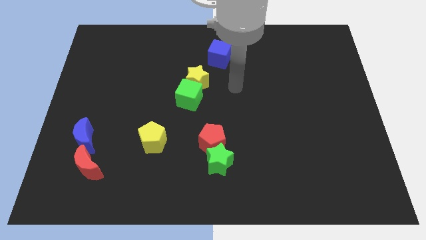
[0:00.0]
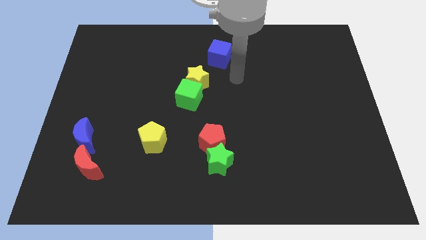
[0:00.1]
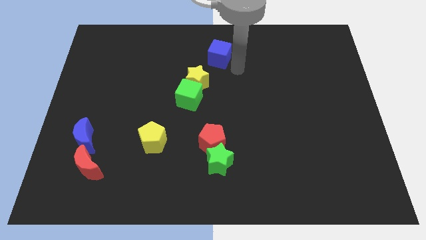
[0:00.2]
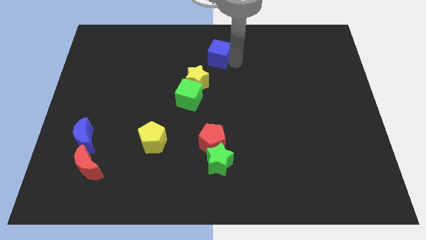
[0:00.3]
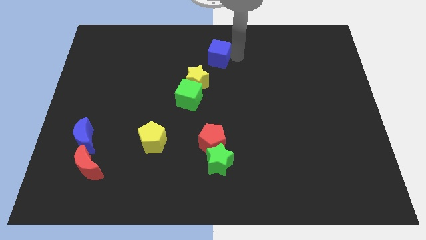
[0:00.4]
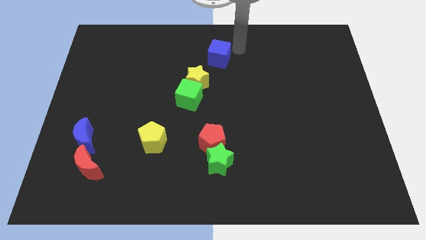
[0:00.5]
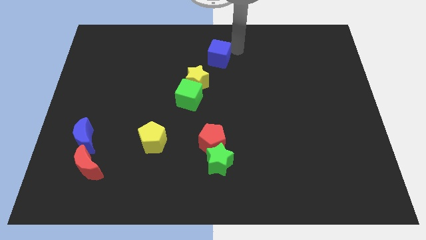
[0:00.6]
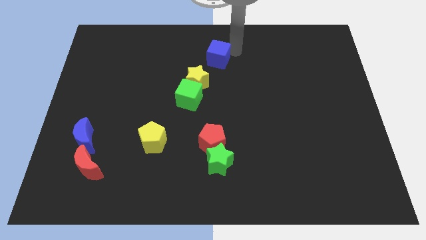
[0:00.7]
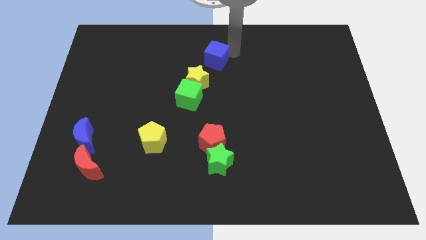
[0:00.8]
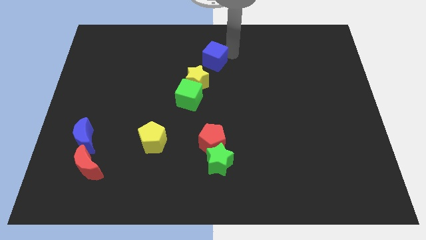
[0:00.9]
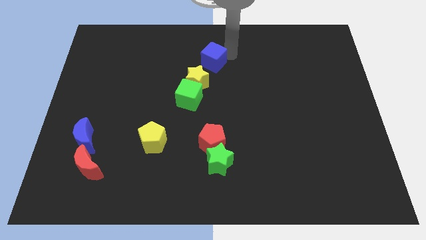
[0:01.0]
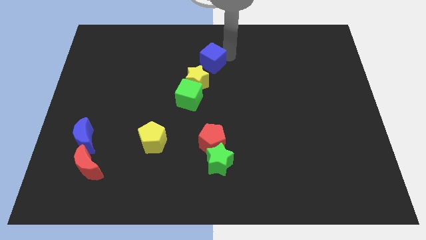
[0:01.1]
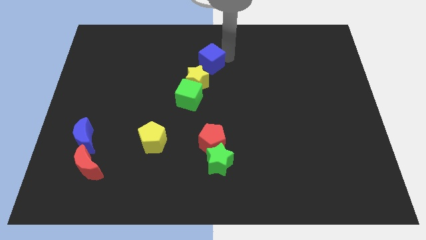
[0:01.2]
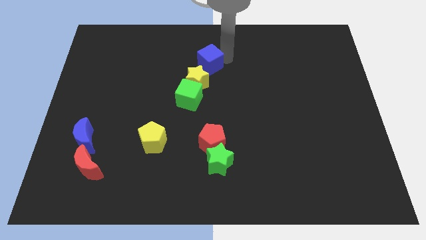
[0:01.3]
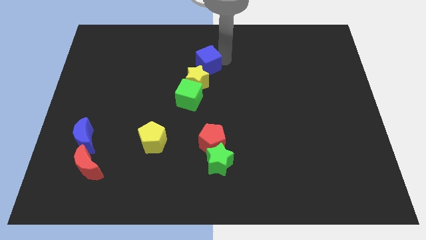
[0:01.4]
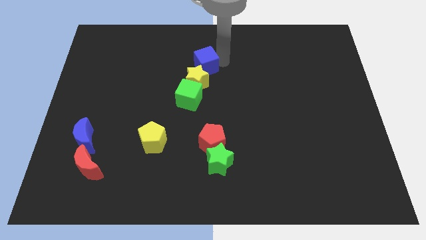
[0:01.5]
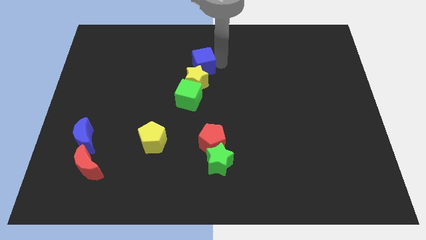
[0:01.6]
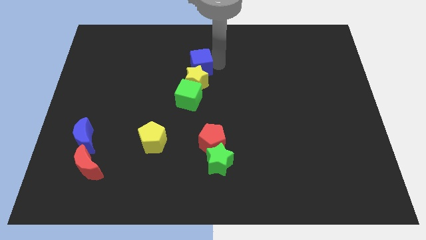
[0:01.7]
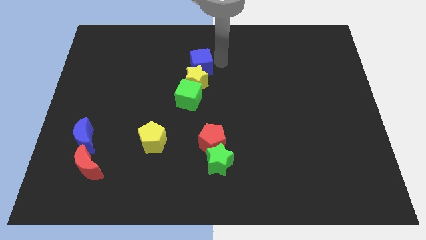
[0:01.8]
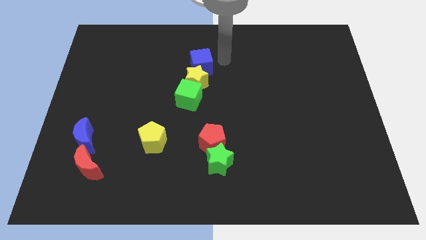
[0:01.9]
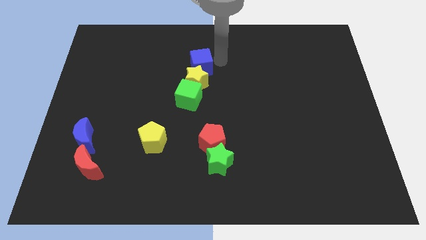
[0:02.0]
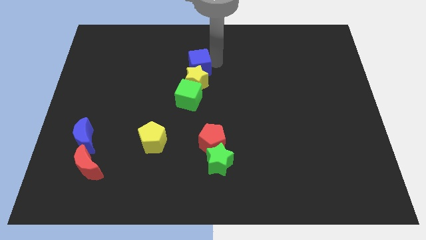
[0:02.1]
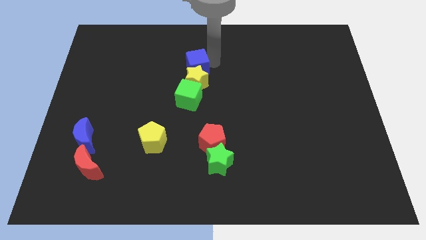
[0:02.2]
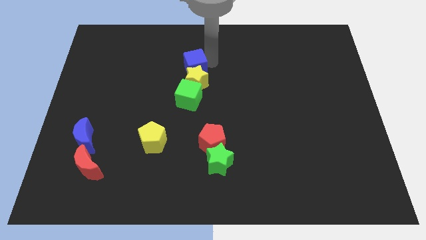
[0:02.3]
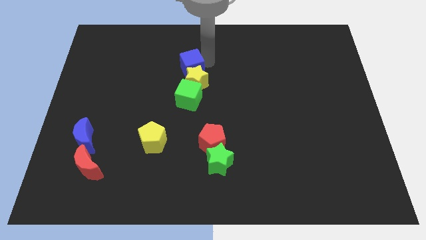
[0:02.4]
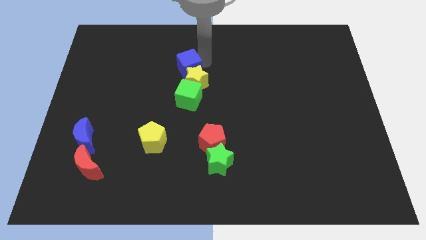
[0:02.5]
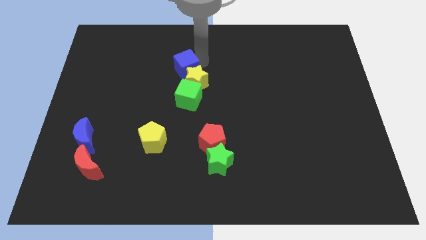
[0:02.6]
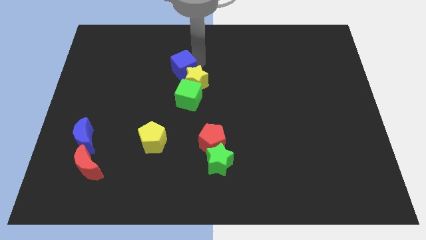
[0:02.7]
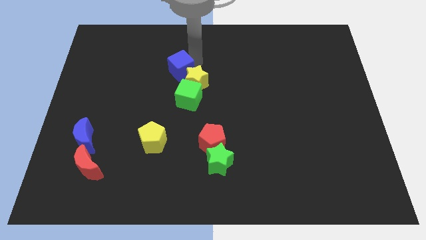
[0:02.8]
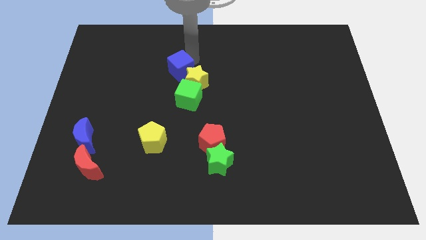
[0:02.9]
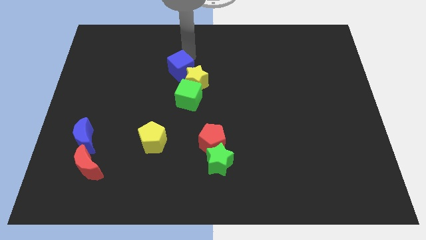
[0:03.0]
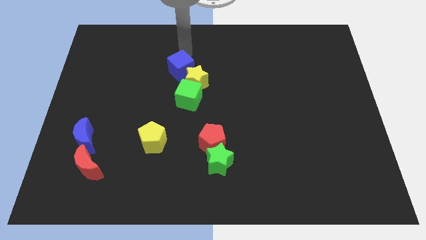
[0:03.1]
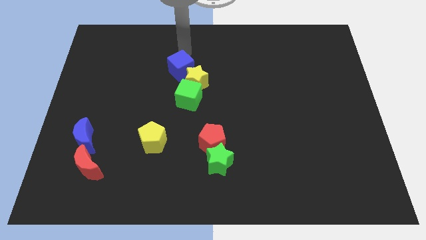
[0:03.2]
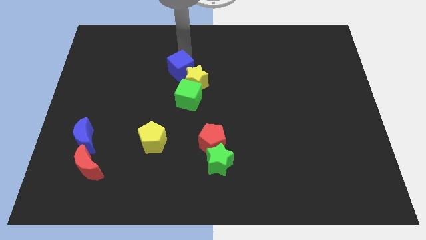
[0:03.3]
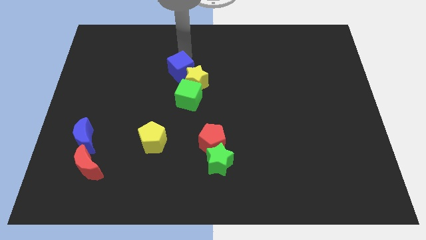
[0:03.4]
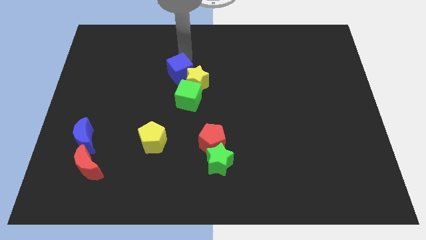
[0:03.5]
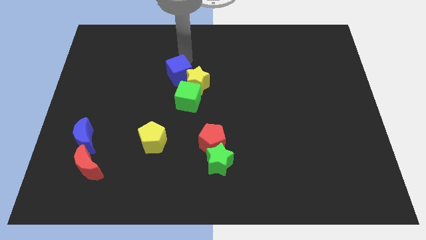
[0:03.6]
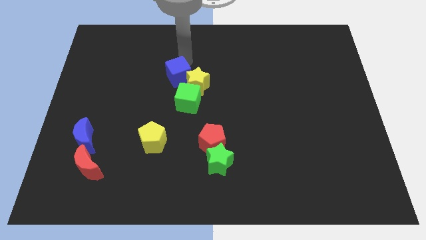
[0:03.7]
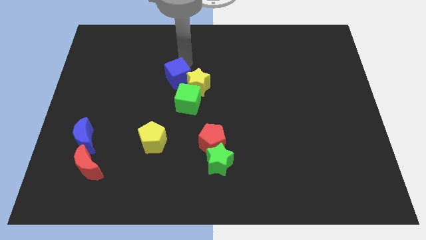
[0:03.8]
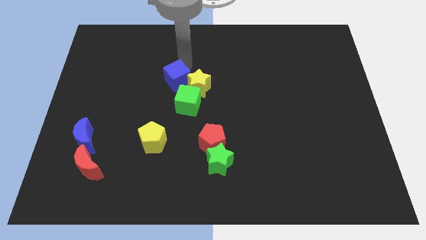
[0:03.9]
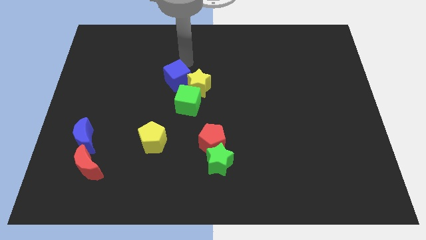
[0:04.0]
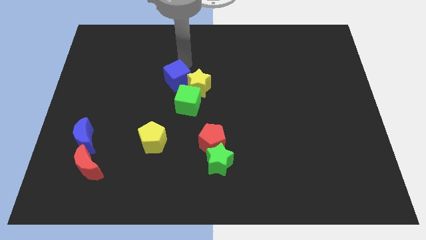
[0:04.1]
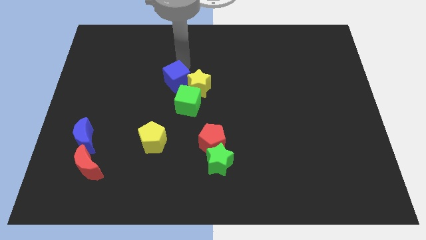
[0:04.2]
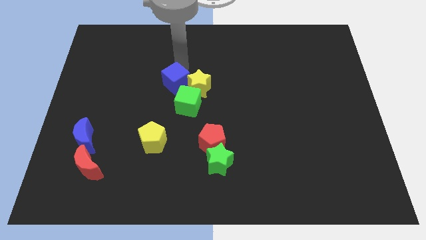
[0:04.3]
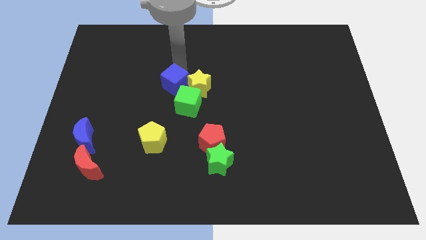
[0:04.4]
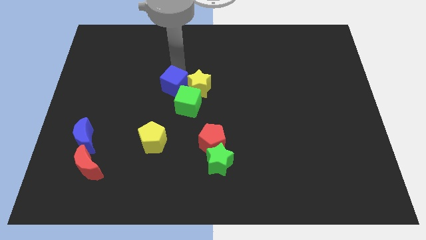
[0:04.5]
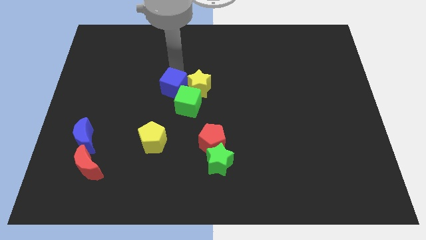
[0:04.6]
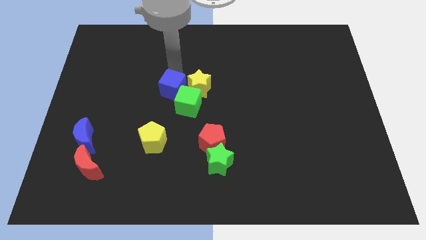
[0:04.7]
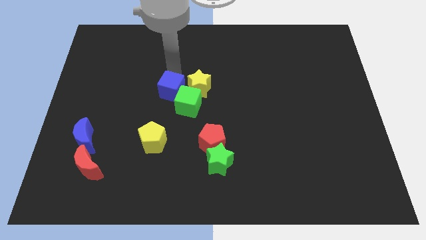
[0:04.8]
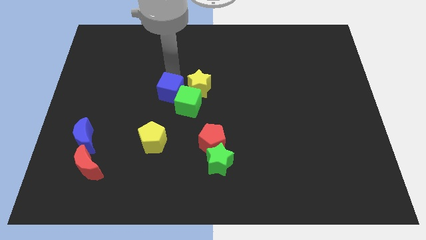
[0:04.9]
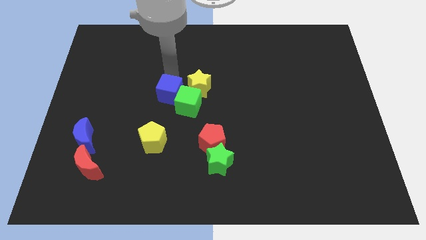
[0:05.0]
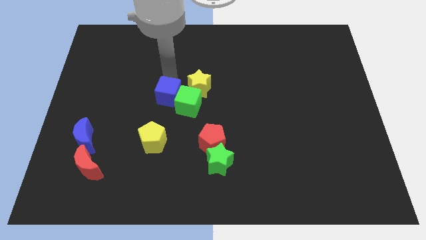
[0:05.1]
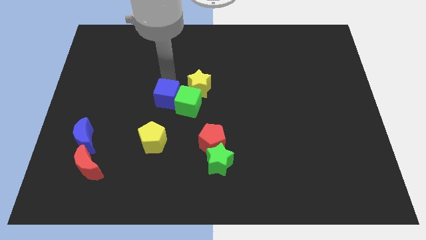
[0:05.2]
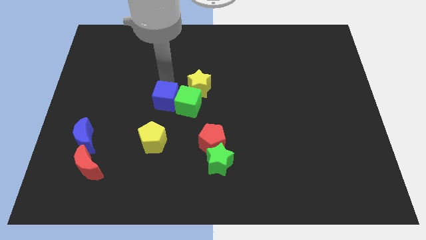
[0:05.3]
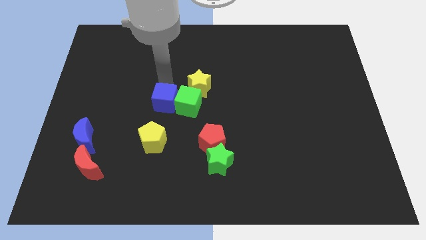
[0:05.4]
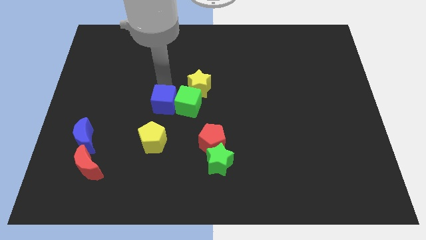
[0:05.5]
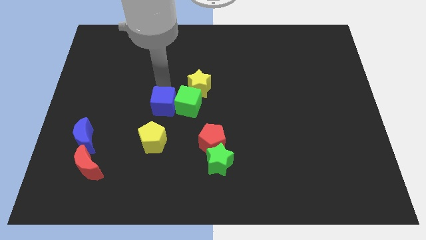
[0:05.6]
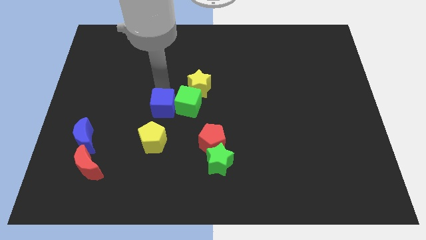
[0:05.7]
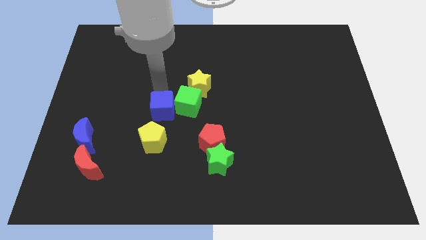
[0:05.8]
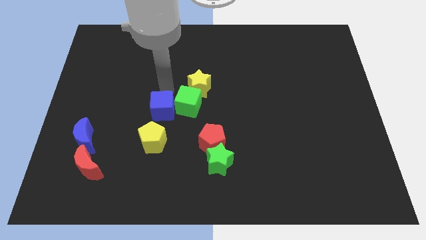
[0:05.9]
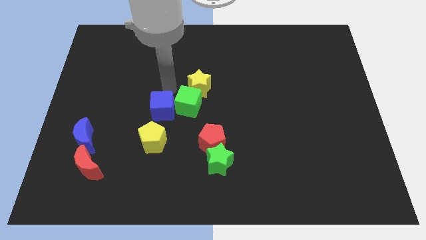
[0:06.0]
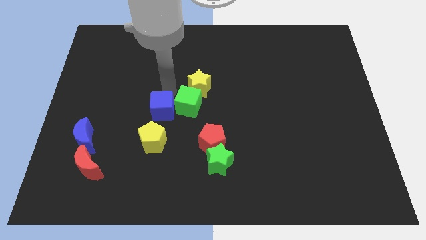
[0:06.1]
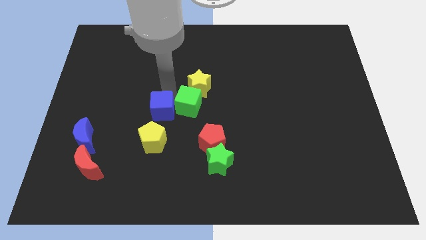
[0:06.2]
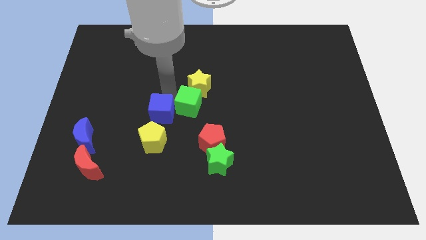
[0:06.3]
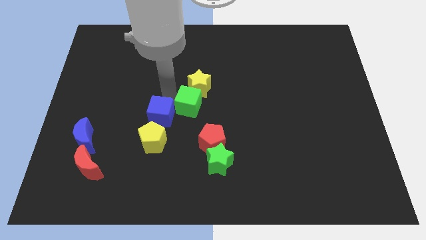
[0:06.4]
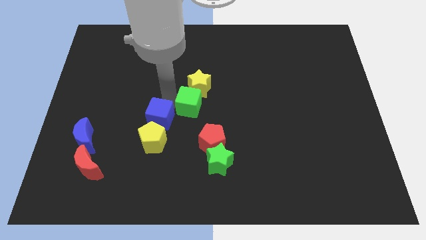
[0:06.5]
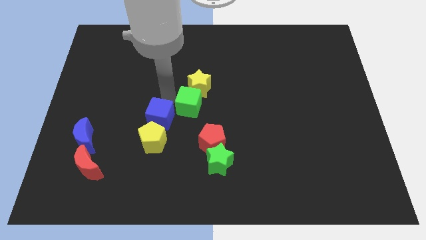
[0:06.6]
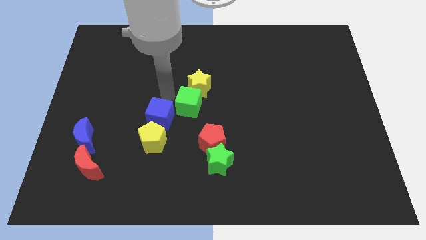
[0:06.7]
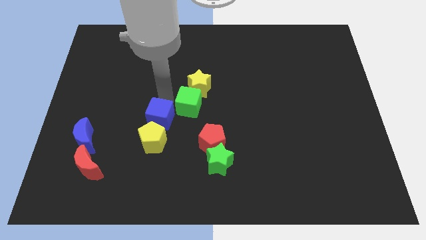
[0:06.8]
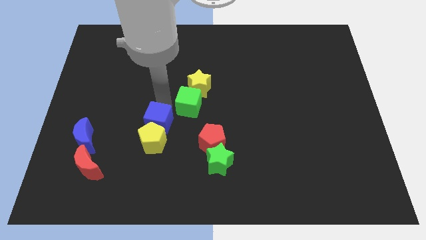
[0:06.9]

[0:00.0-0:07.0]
put the blue cube towards the yellow pentagon

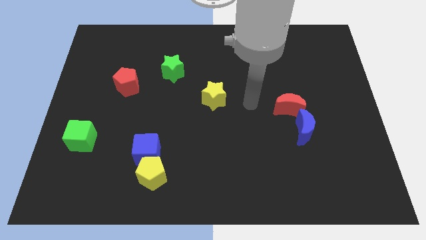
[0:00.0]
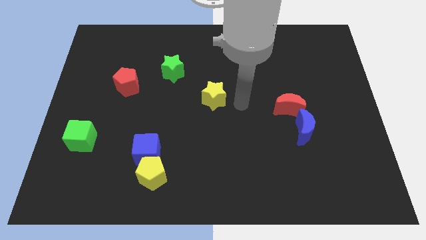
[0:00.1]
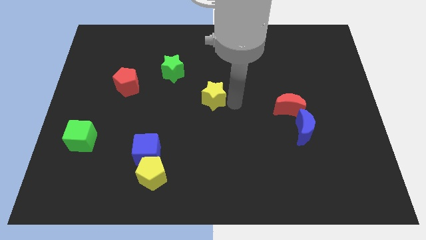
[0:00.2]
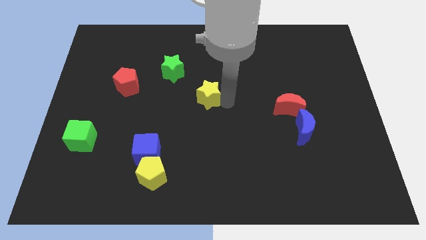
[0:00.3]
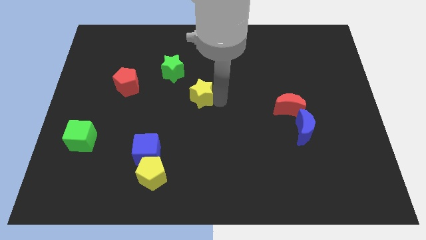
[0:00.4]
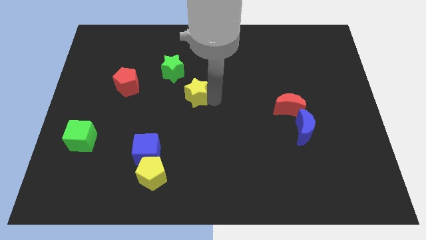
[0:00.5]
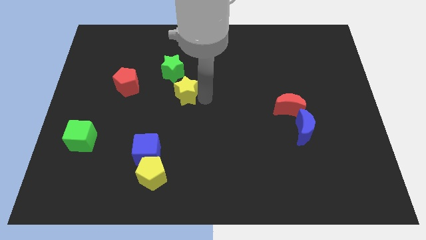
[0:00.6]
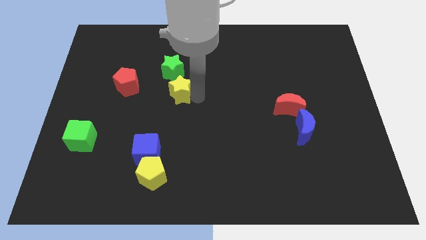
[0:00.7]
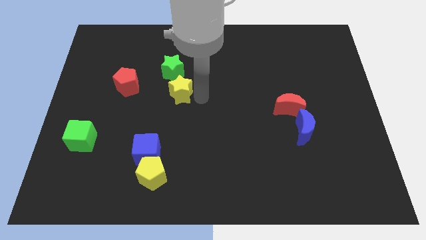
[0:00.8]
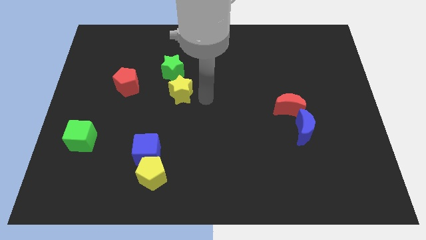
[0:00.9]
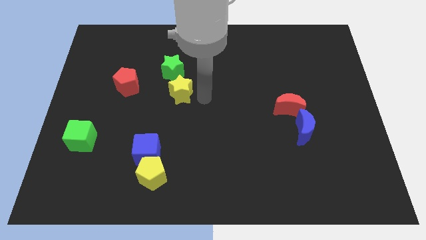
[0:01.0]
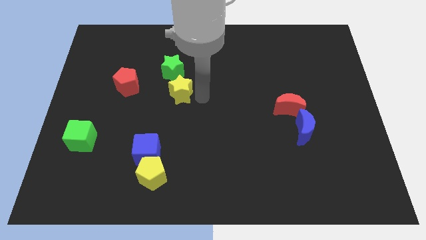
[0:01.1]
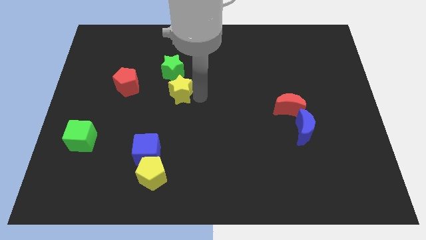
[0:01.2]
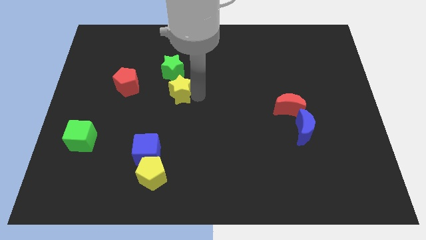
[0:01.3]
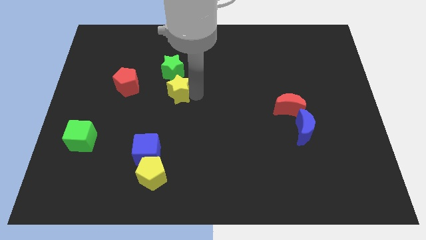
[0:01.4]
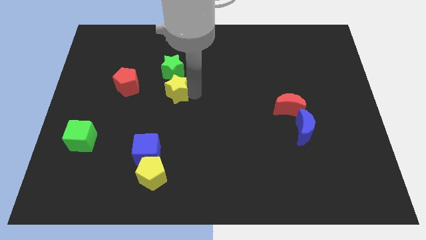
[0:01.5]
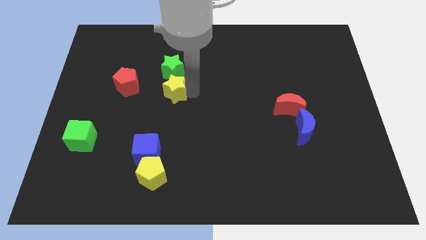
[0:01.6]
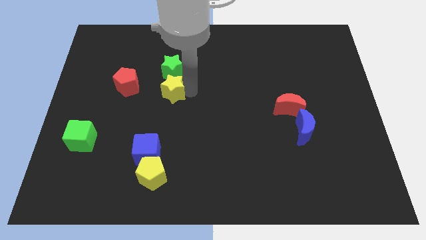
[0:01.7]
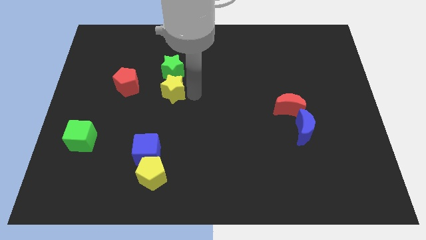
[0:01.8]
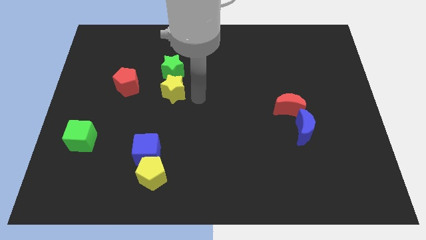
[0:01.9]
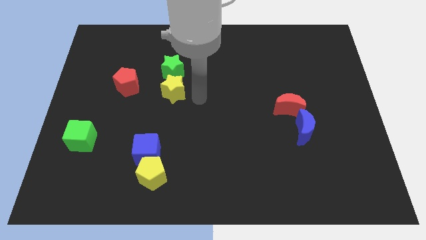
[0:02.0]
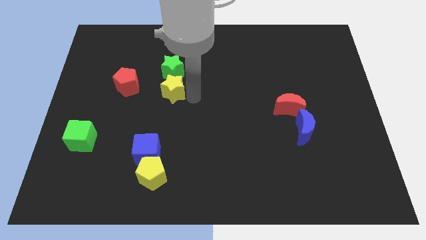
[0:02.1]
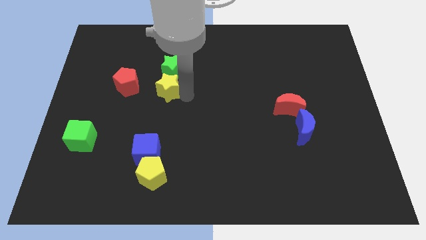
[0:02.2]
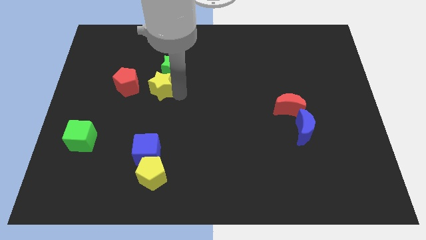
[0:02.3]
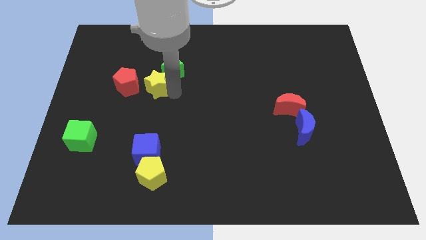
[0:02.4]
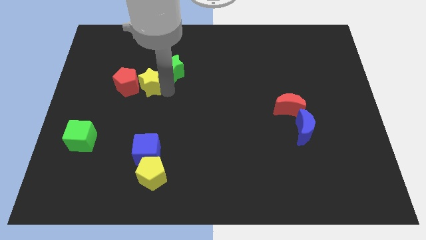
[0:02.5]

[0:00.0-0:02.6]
push the yellow star to the red pentagon
